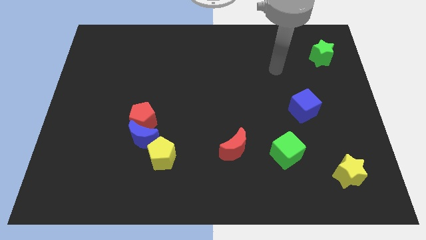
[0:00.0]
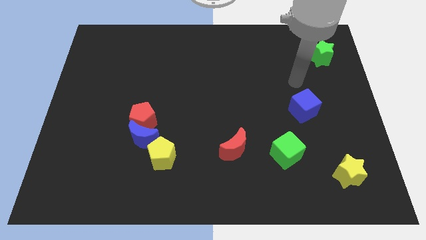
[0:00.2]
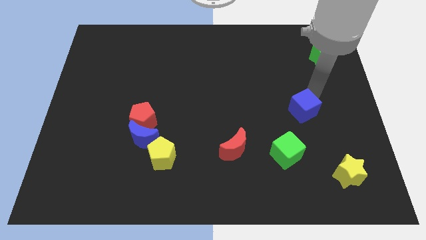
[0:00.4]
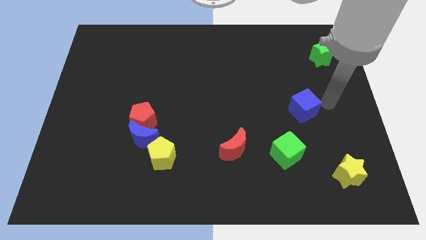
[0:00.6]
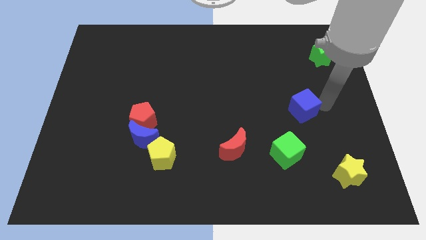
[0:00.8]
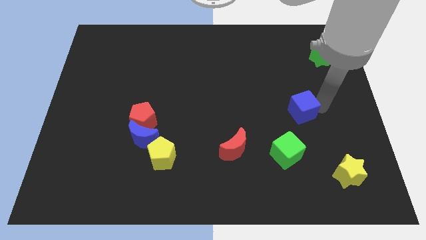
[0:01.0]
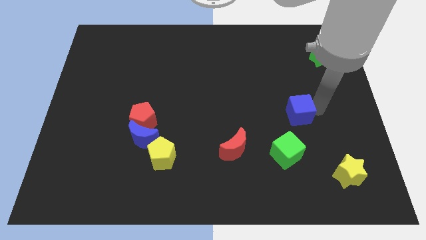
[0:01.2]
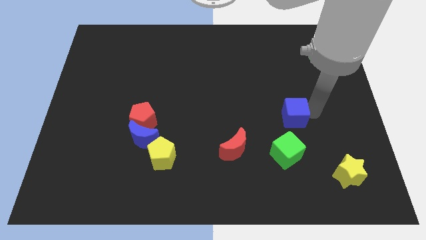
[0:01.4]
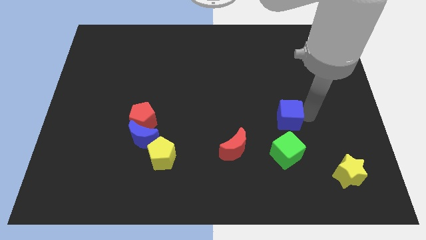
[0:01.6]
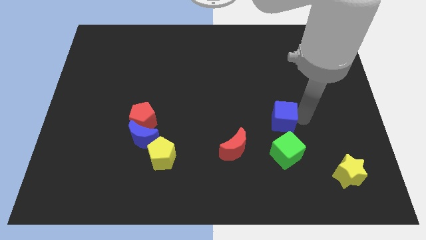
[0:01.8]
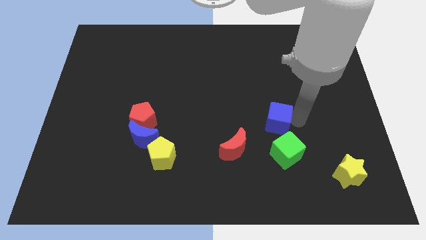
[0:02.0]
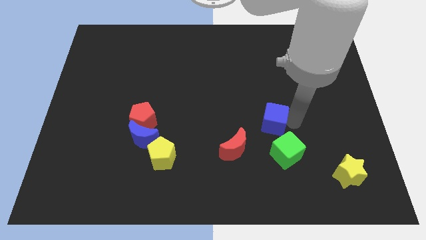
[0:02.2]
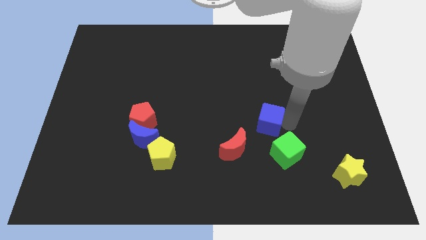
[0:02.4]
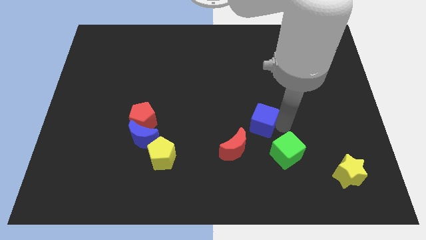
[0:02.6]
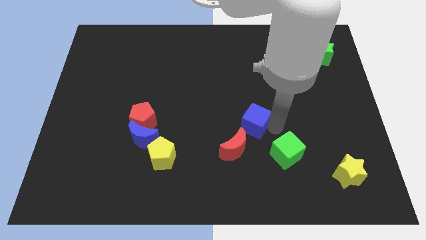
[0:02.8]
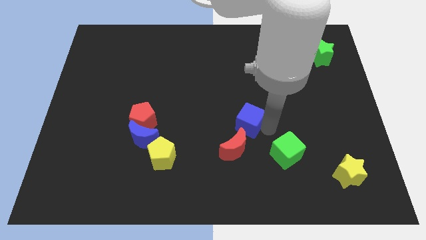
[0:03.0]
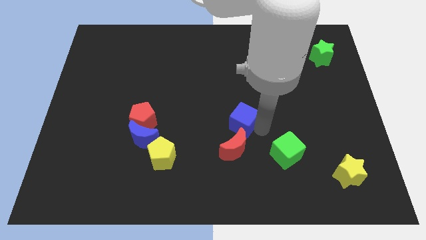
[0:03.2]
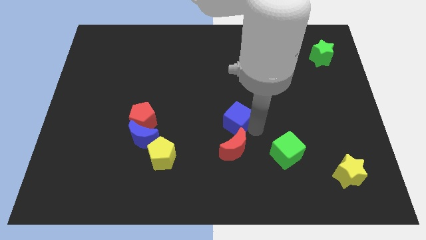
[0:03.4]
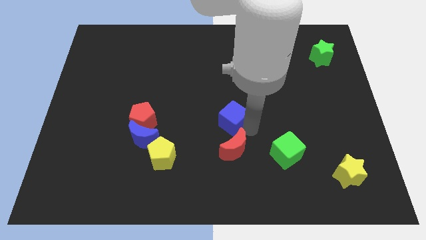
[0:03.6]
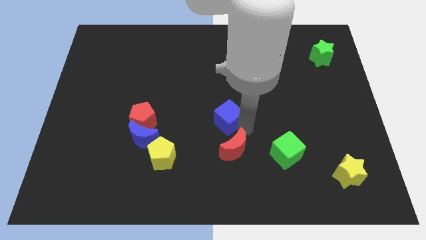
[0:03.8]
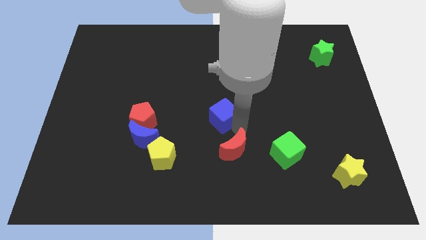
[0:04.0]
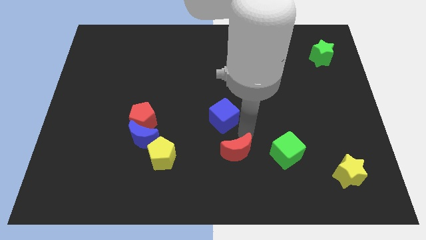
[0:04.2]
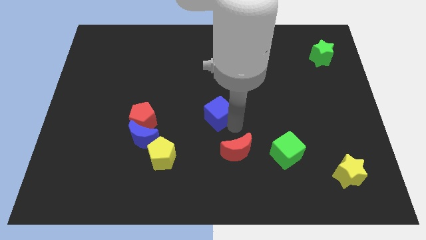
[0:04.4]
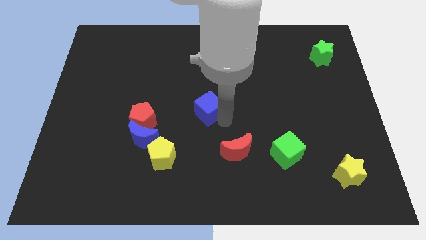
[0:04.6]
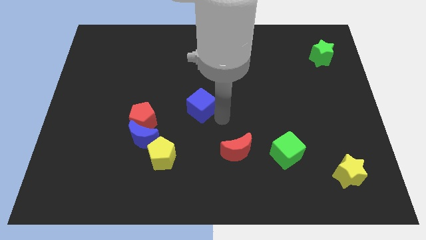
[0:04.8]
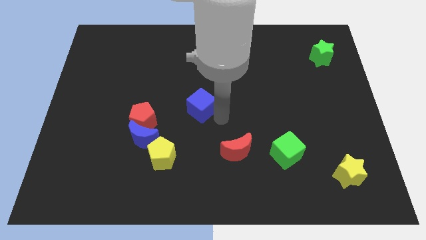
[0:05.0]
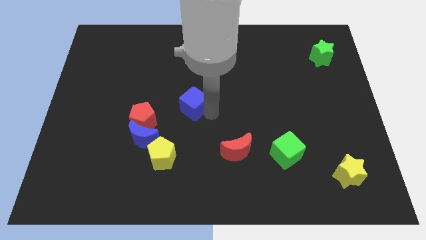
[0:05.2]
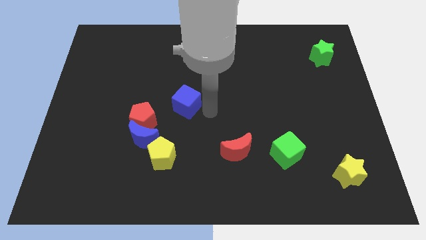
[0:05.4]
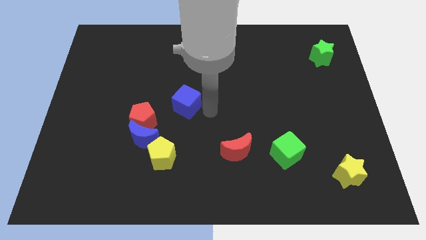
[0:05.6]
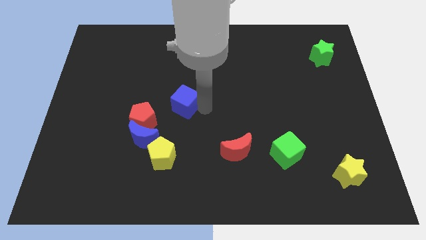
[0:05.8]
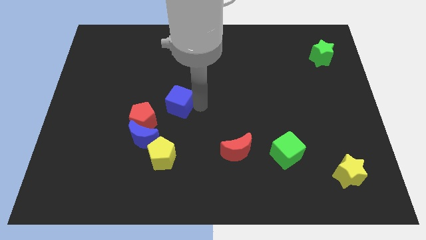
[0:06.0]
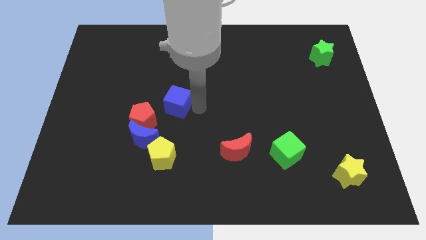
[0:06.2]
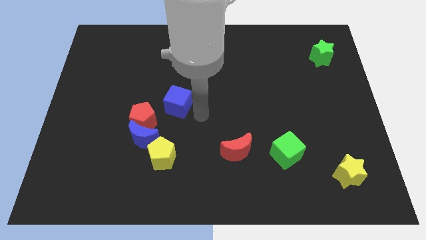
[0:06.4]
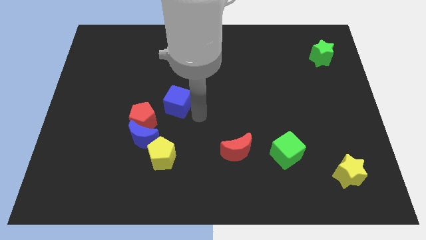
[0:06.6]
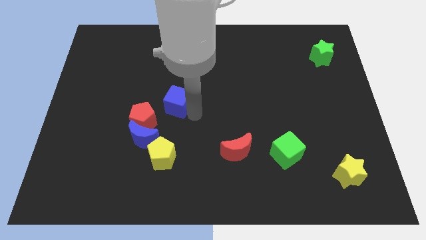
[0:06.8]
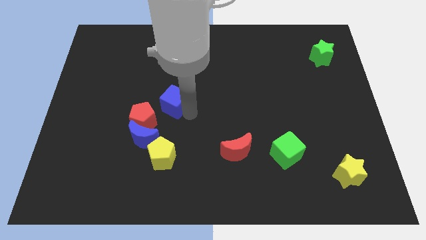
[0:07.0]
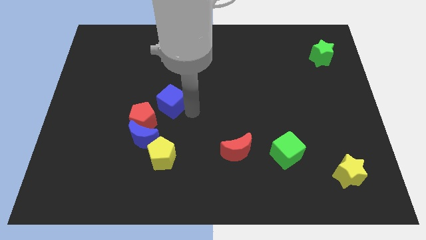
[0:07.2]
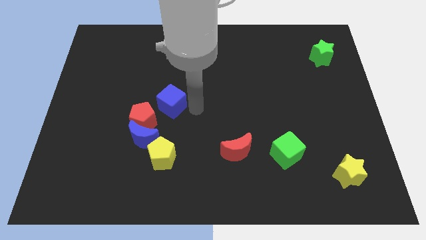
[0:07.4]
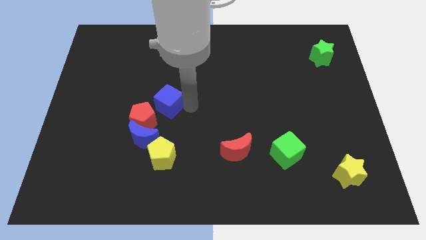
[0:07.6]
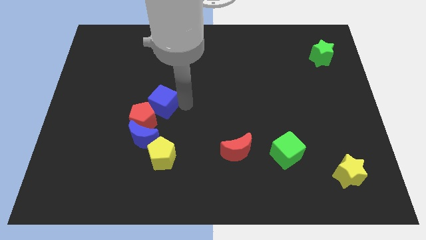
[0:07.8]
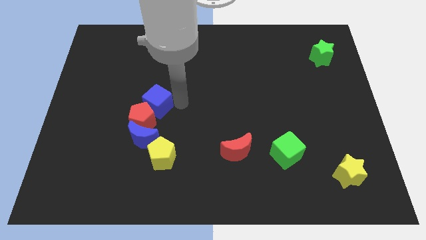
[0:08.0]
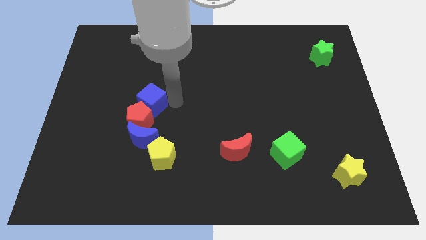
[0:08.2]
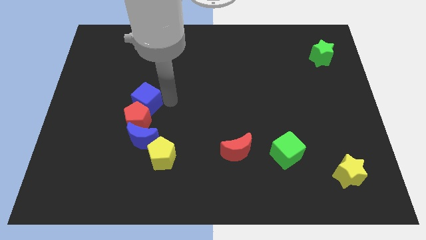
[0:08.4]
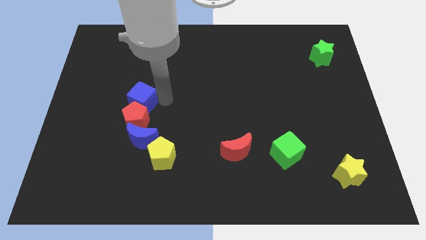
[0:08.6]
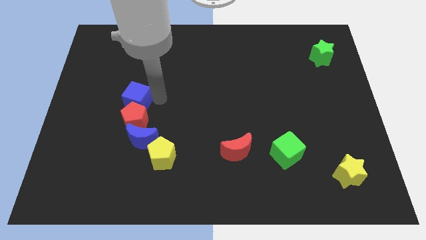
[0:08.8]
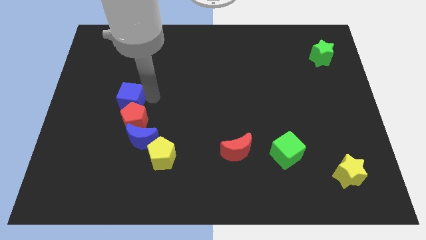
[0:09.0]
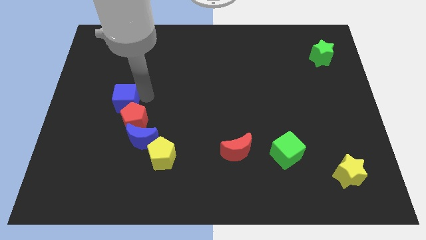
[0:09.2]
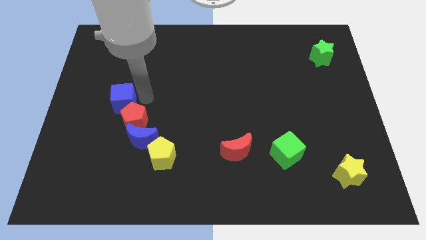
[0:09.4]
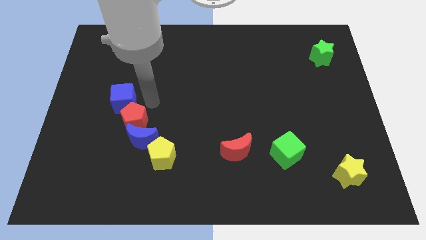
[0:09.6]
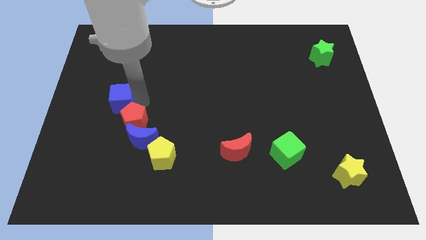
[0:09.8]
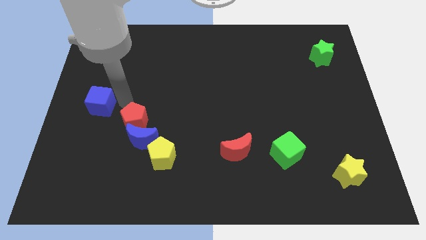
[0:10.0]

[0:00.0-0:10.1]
put the blue cube to the left side of the board

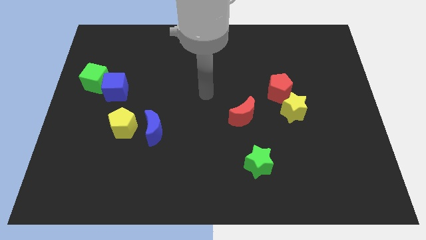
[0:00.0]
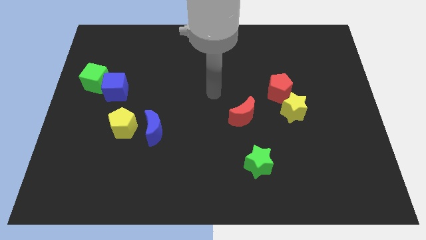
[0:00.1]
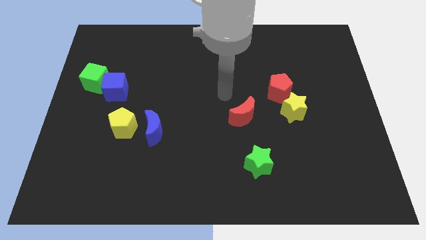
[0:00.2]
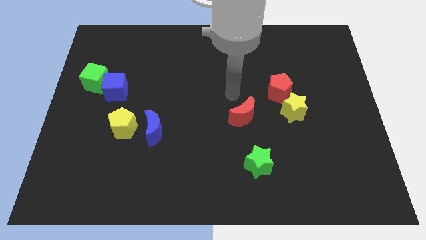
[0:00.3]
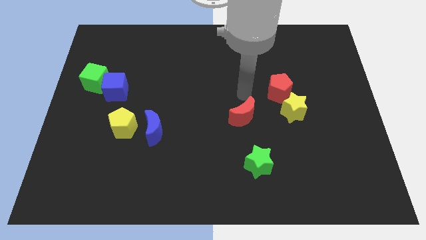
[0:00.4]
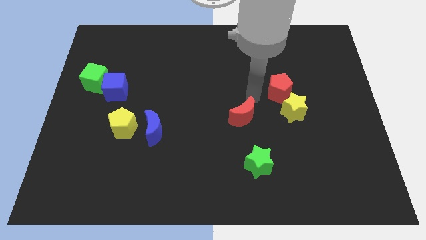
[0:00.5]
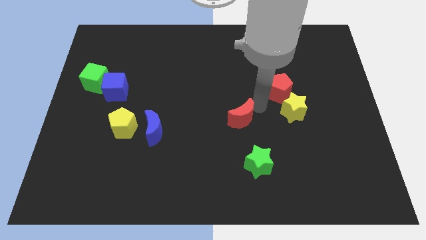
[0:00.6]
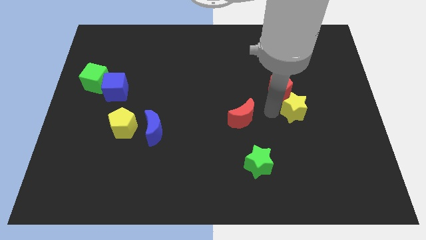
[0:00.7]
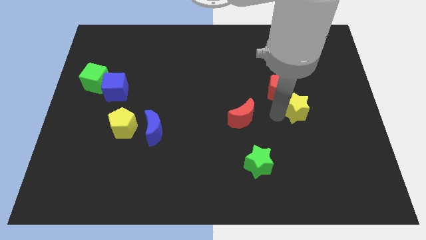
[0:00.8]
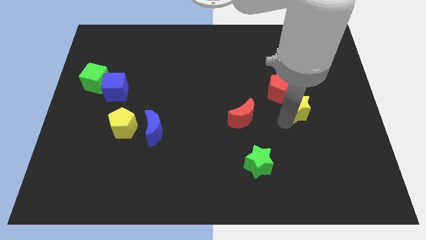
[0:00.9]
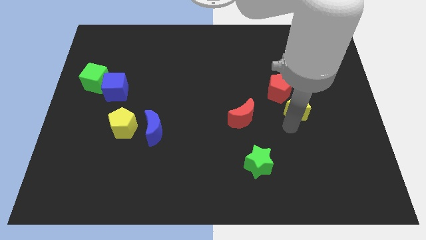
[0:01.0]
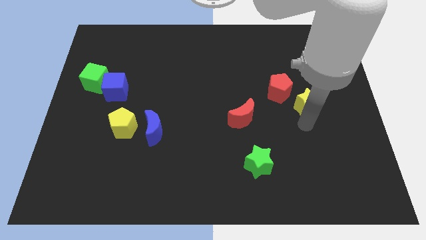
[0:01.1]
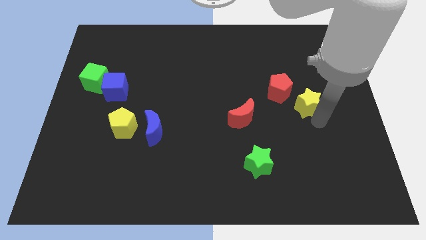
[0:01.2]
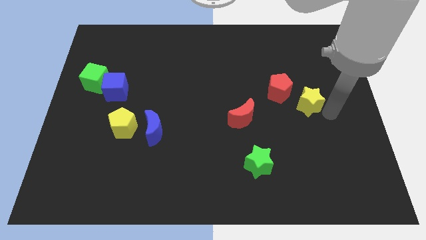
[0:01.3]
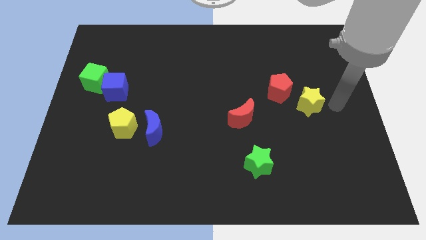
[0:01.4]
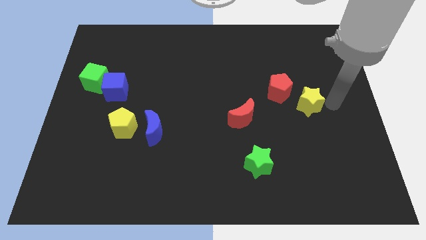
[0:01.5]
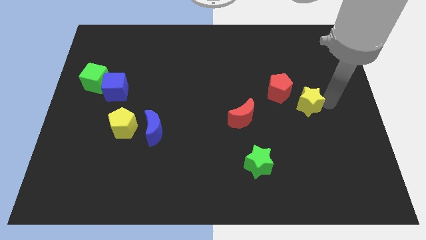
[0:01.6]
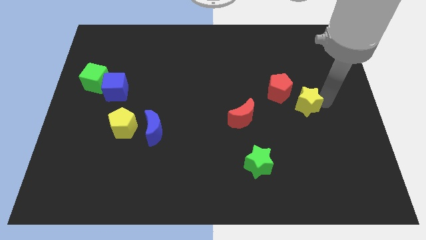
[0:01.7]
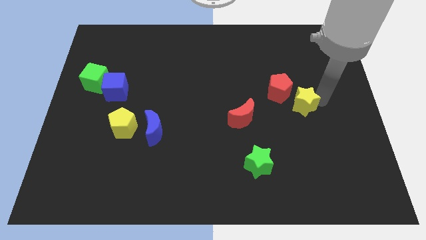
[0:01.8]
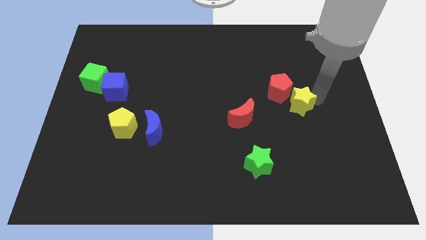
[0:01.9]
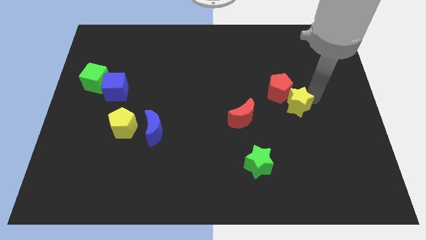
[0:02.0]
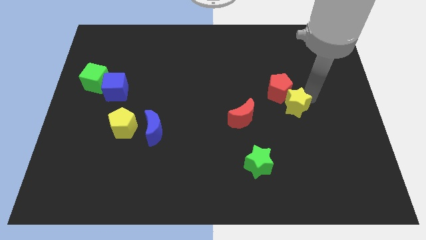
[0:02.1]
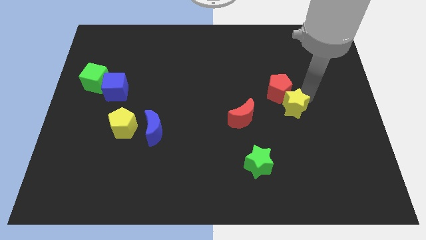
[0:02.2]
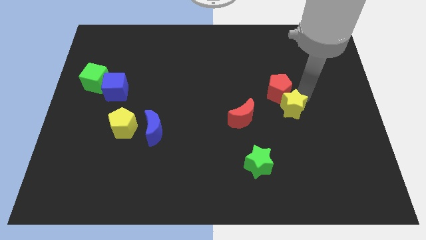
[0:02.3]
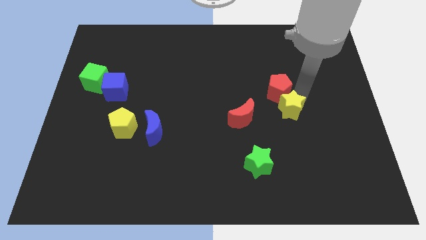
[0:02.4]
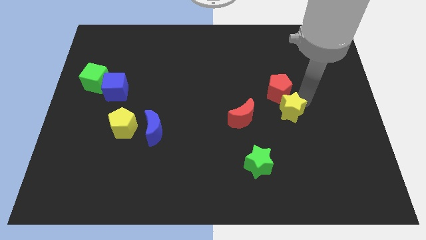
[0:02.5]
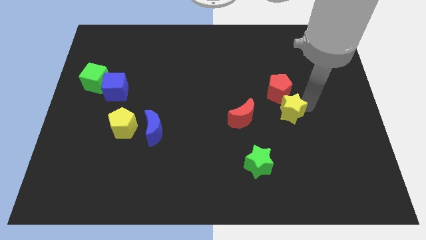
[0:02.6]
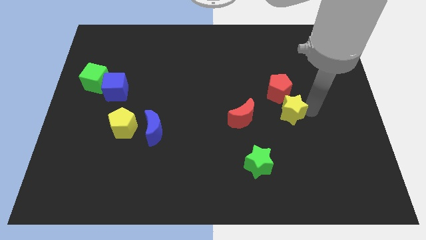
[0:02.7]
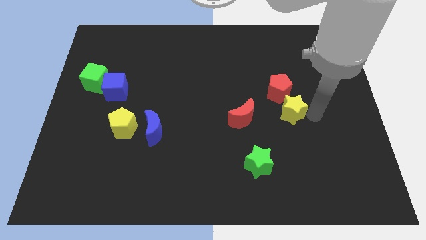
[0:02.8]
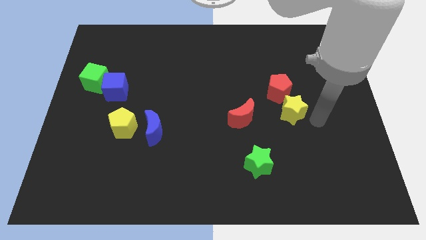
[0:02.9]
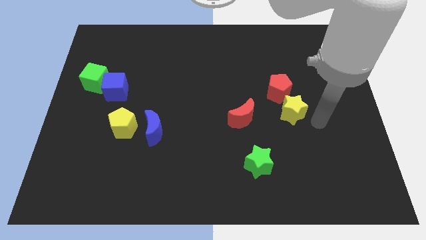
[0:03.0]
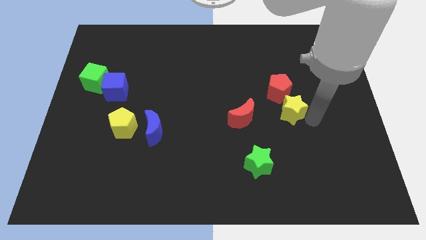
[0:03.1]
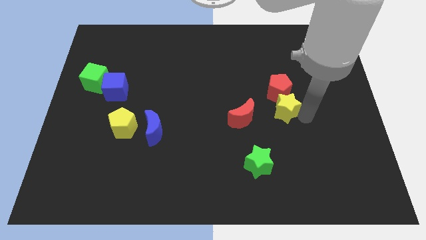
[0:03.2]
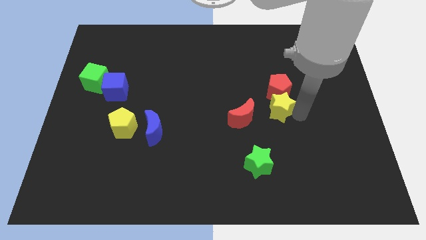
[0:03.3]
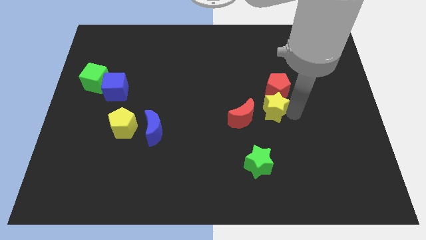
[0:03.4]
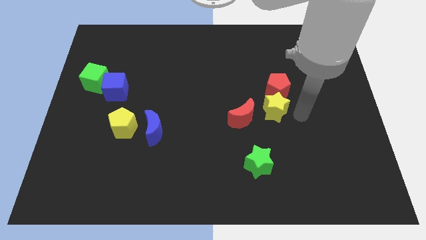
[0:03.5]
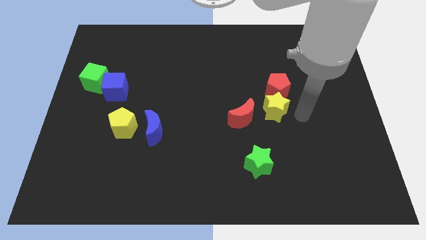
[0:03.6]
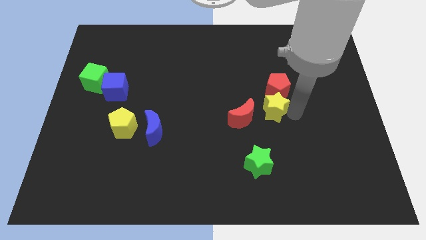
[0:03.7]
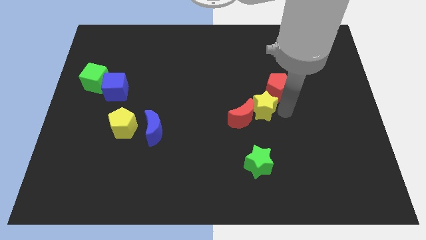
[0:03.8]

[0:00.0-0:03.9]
put the yellow star to the center
